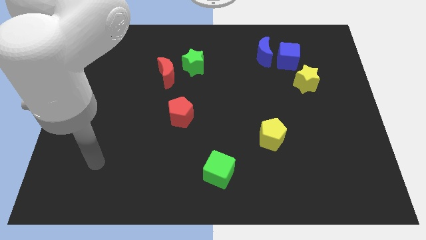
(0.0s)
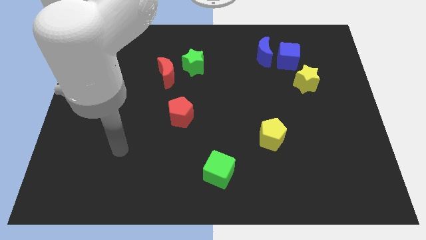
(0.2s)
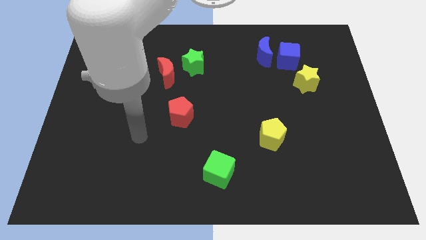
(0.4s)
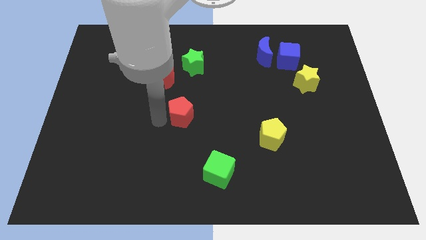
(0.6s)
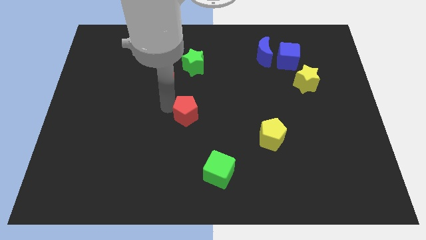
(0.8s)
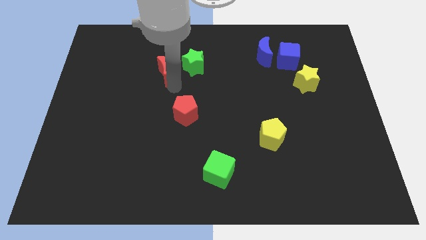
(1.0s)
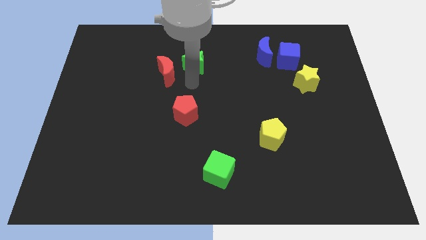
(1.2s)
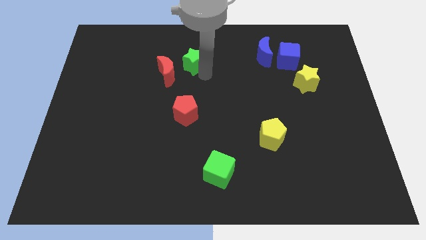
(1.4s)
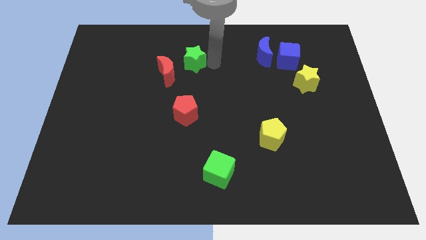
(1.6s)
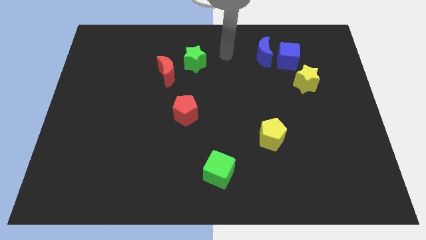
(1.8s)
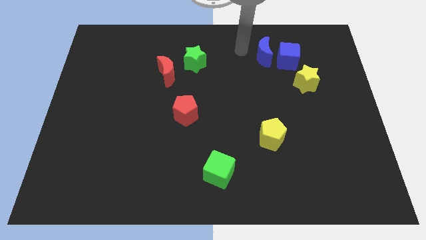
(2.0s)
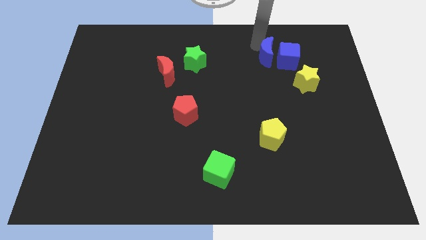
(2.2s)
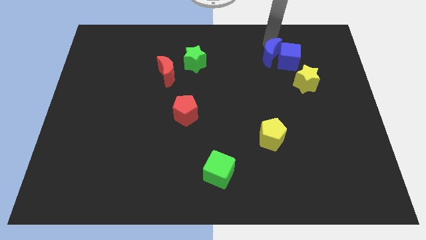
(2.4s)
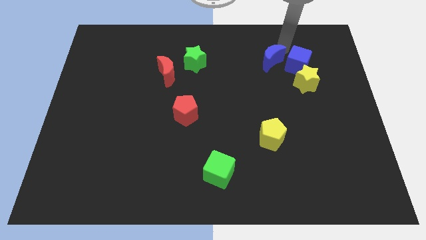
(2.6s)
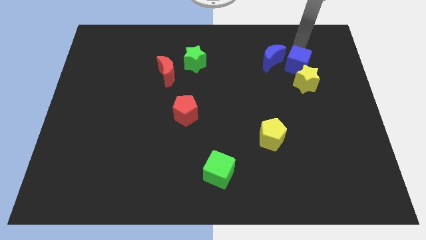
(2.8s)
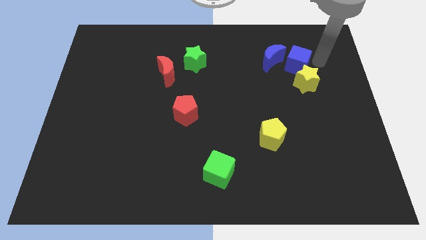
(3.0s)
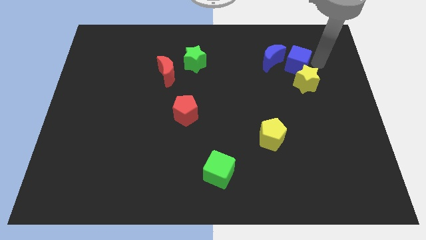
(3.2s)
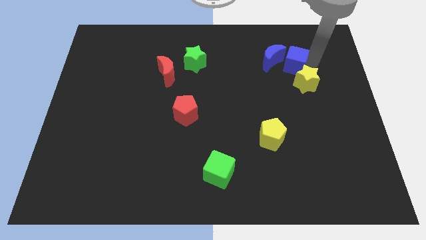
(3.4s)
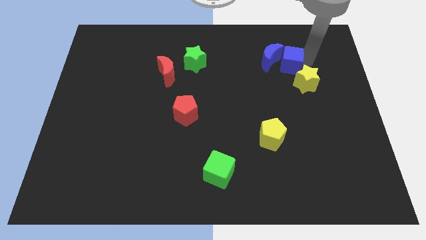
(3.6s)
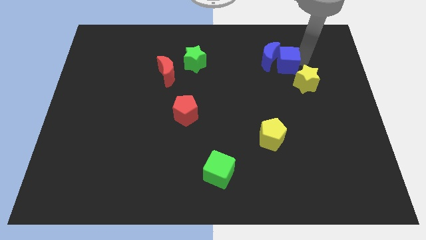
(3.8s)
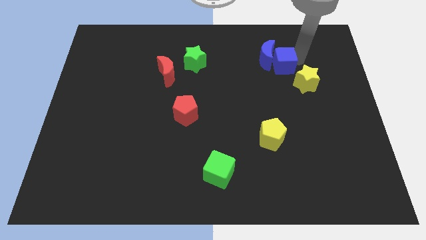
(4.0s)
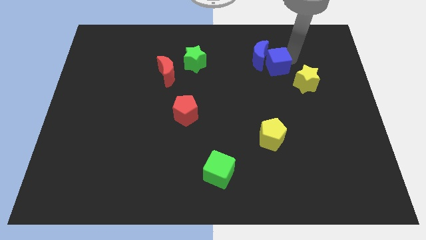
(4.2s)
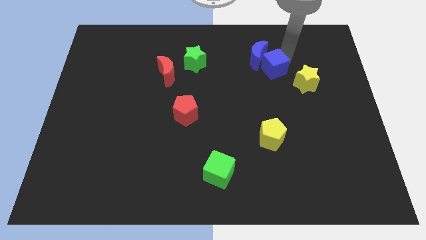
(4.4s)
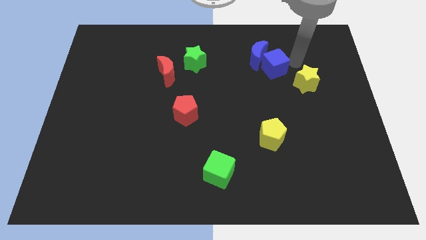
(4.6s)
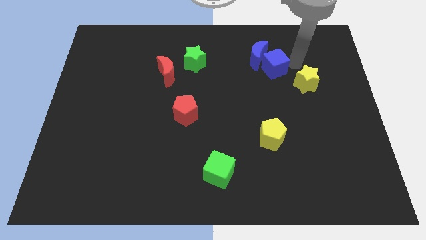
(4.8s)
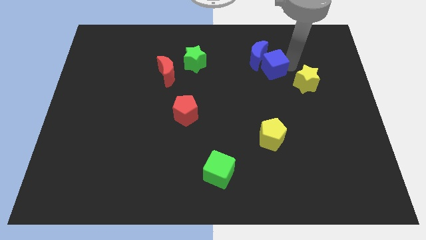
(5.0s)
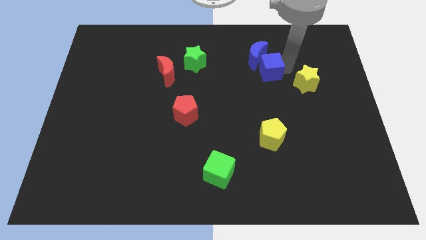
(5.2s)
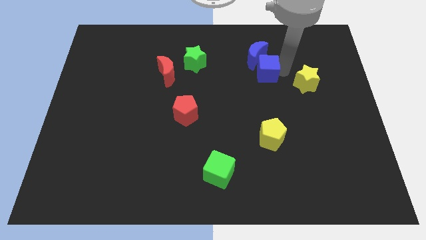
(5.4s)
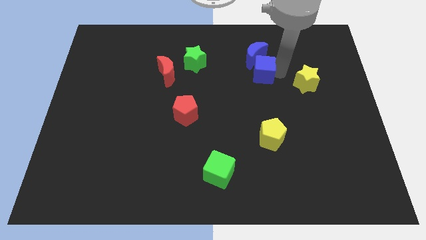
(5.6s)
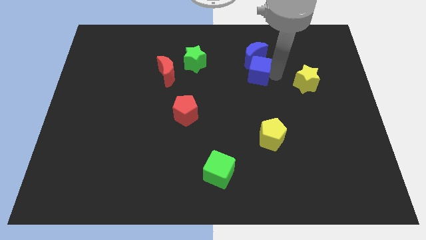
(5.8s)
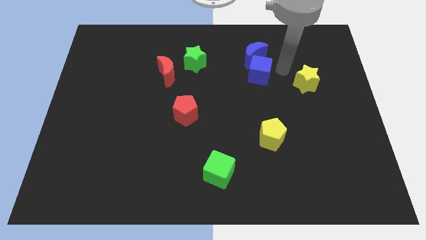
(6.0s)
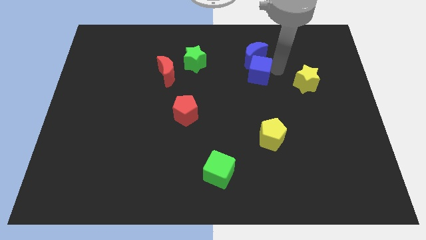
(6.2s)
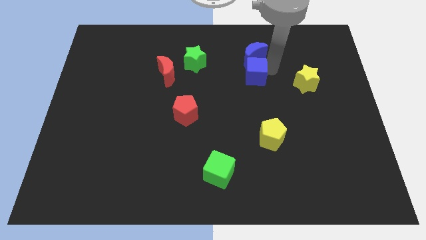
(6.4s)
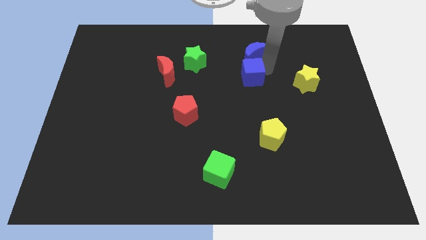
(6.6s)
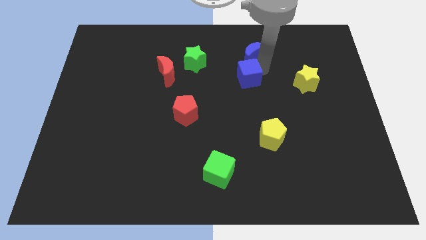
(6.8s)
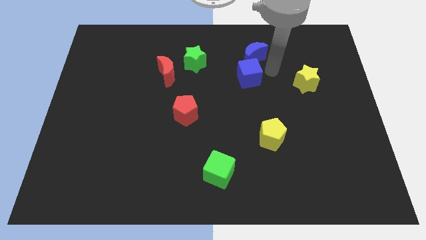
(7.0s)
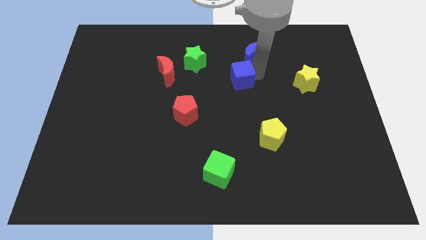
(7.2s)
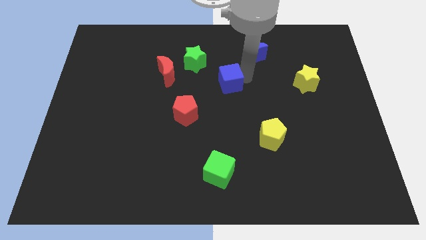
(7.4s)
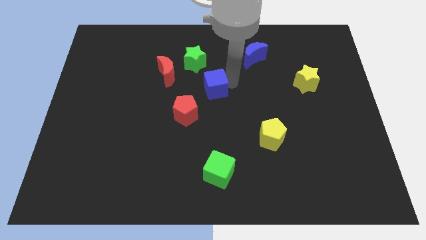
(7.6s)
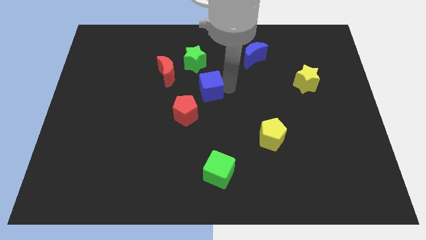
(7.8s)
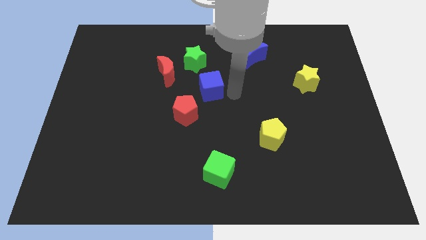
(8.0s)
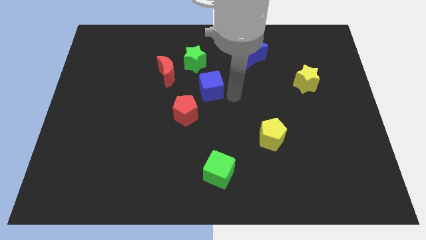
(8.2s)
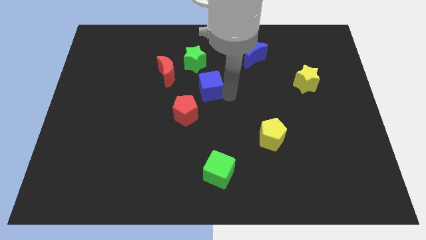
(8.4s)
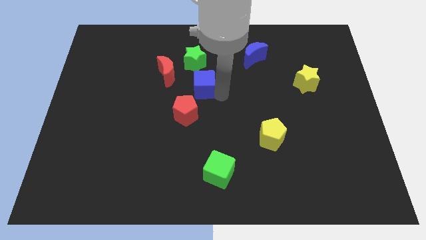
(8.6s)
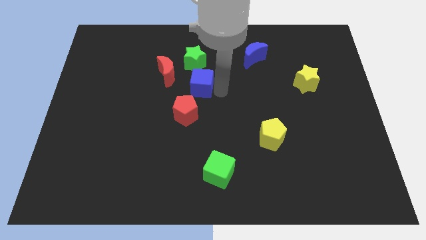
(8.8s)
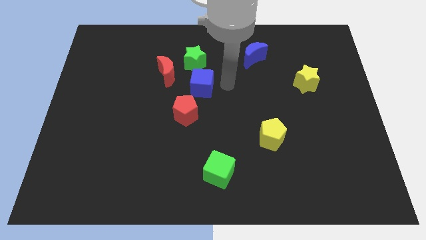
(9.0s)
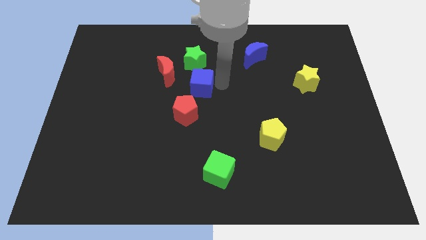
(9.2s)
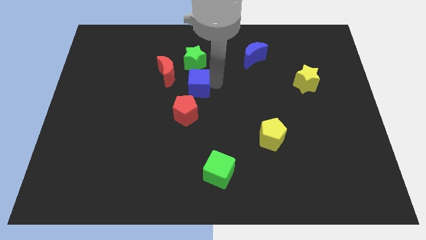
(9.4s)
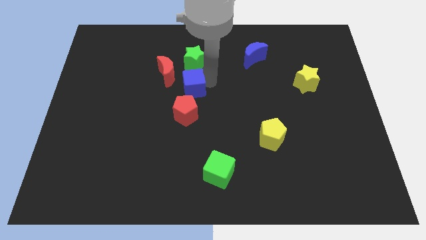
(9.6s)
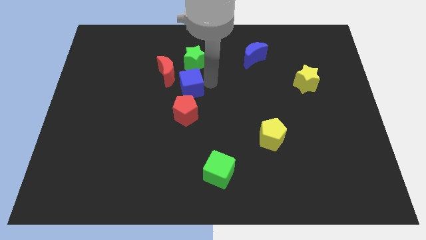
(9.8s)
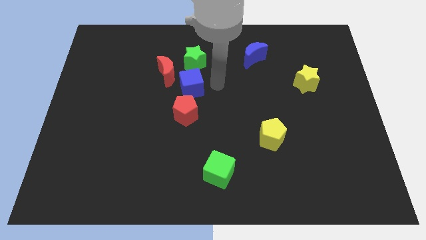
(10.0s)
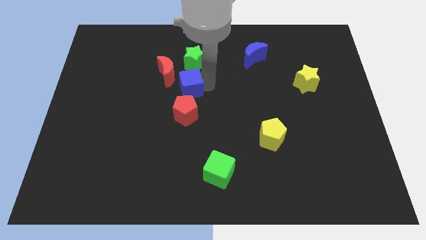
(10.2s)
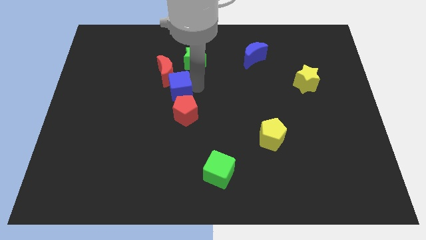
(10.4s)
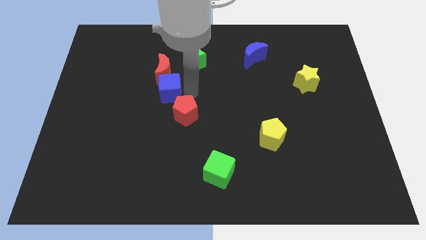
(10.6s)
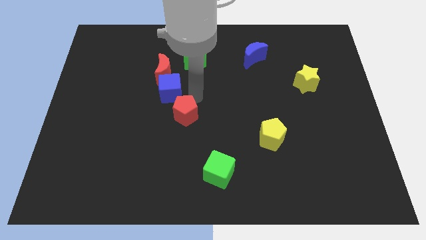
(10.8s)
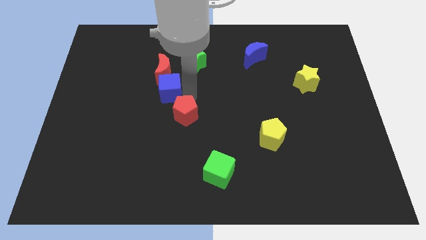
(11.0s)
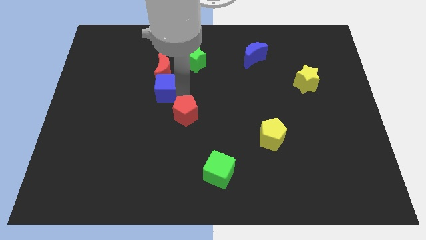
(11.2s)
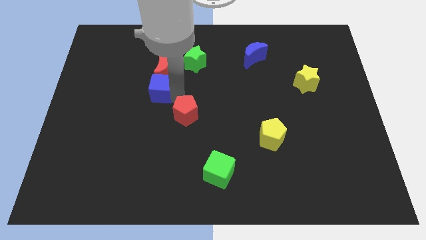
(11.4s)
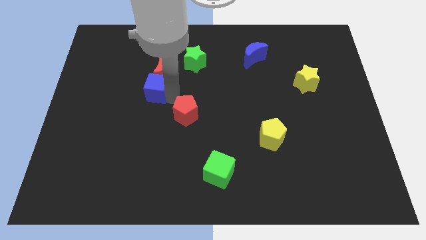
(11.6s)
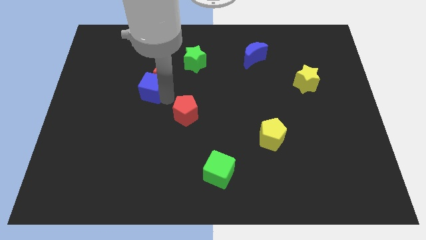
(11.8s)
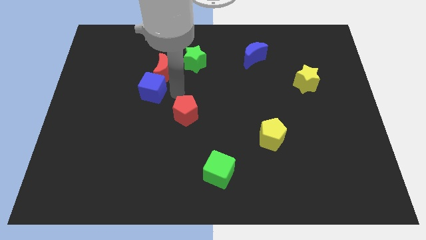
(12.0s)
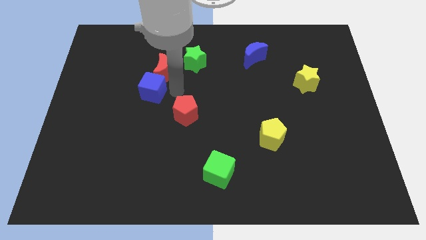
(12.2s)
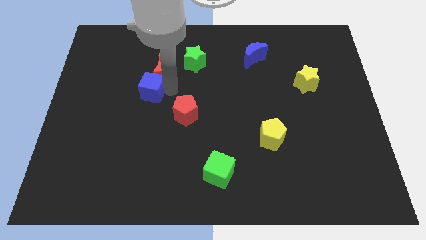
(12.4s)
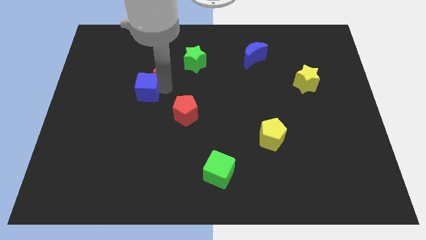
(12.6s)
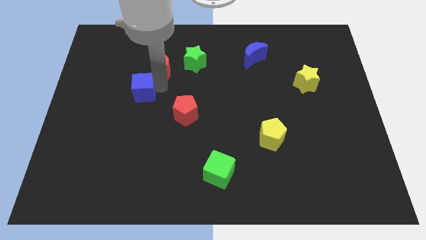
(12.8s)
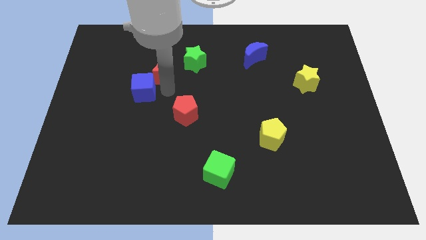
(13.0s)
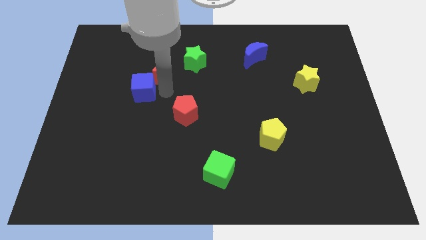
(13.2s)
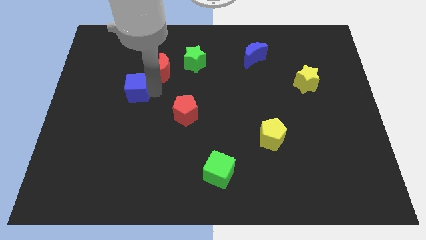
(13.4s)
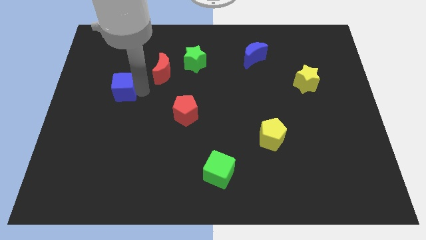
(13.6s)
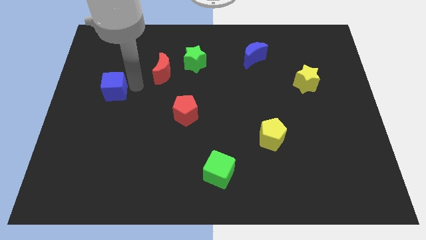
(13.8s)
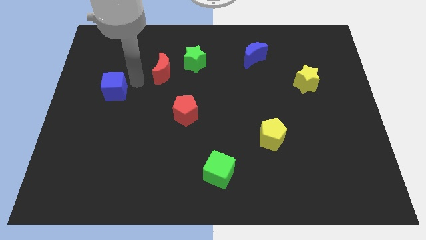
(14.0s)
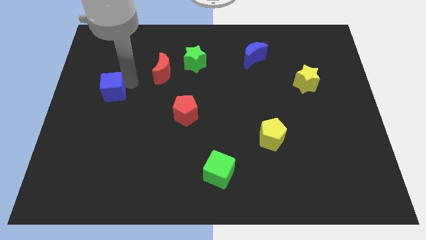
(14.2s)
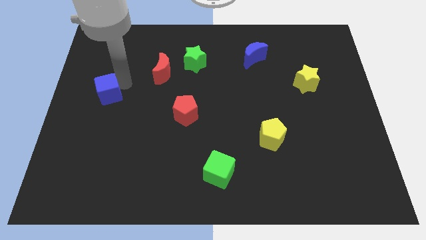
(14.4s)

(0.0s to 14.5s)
push the blue cube to the left side

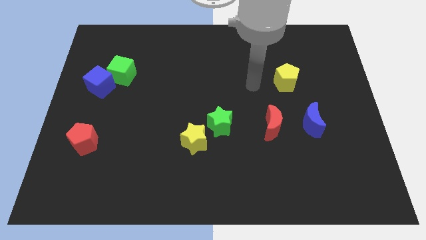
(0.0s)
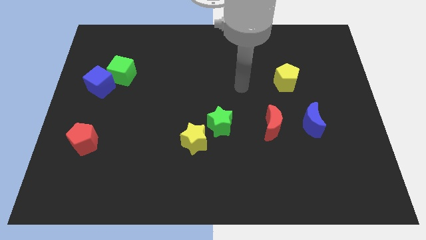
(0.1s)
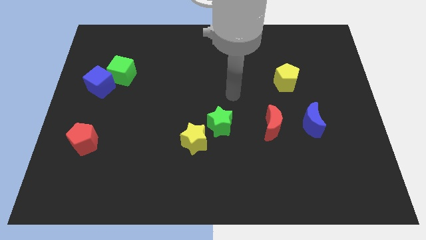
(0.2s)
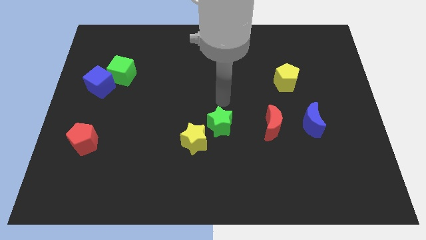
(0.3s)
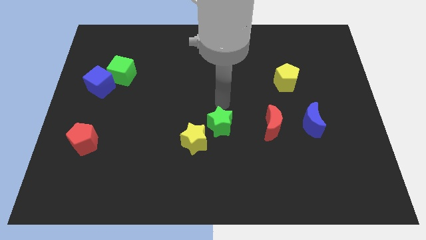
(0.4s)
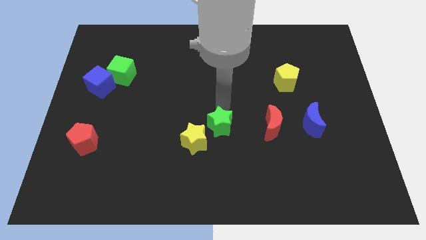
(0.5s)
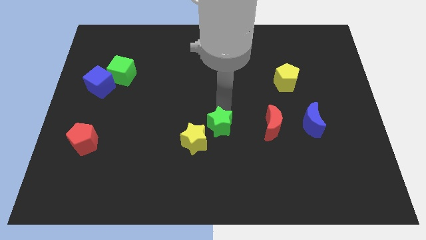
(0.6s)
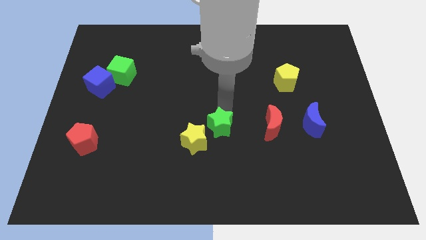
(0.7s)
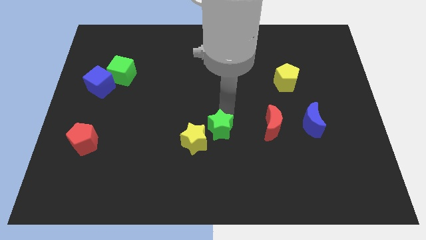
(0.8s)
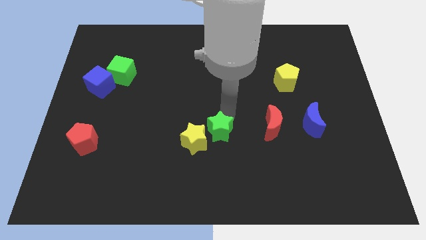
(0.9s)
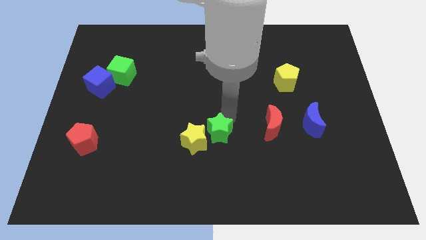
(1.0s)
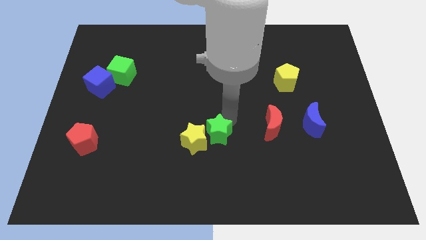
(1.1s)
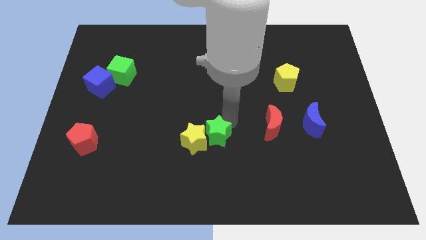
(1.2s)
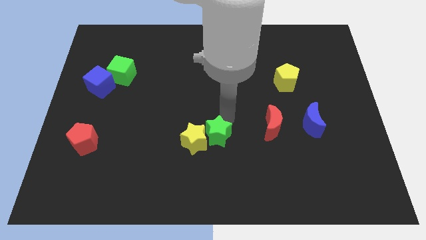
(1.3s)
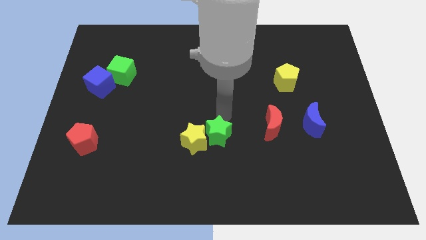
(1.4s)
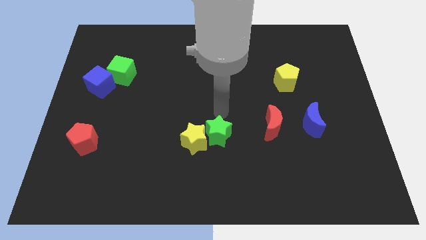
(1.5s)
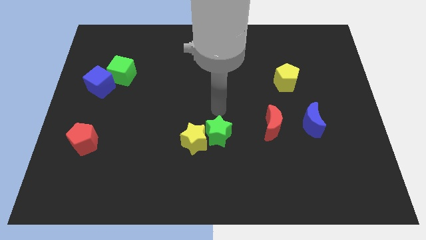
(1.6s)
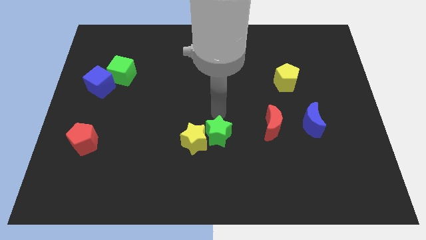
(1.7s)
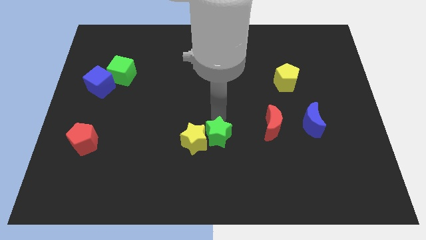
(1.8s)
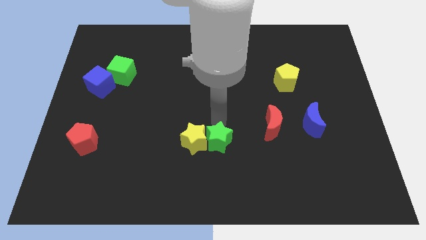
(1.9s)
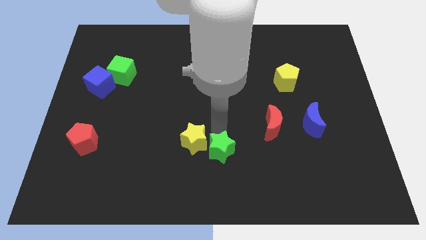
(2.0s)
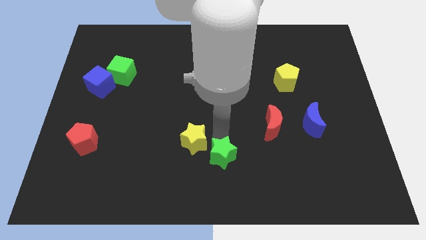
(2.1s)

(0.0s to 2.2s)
put the green star to the bottom side
